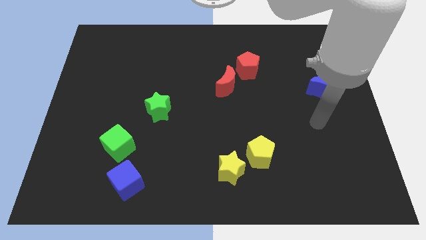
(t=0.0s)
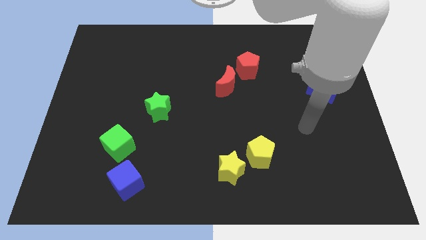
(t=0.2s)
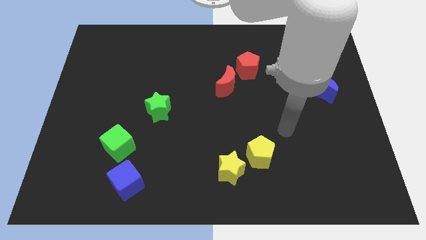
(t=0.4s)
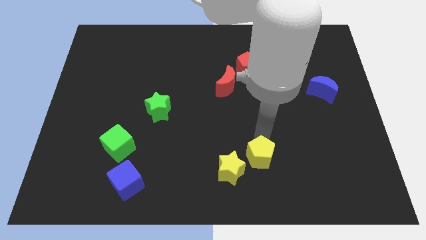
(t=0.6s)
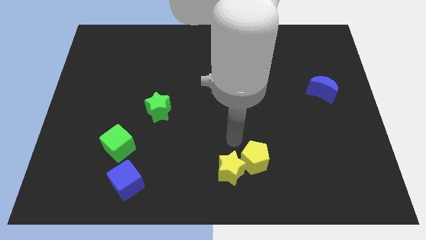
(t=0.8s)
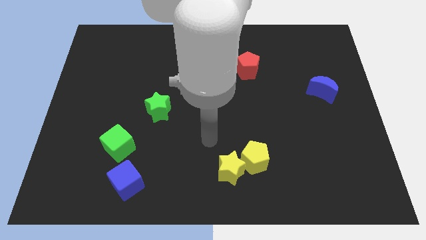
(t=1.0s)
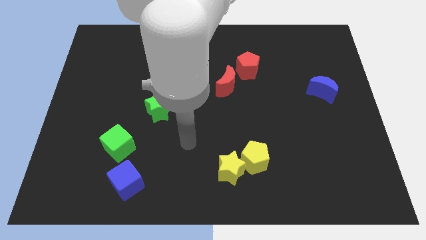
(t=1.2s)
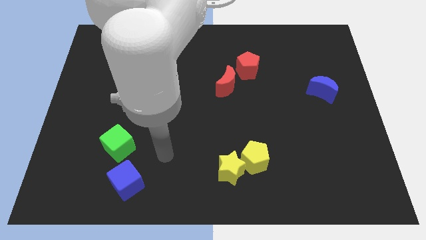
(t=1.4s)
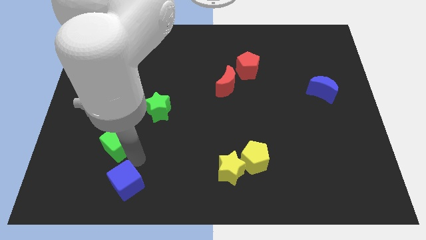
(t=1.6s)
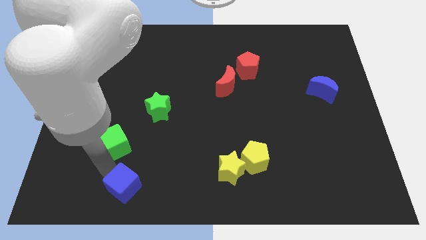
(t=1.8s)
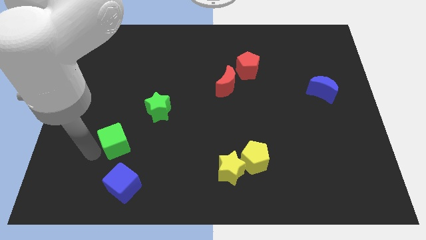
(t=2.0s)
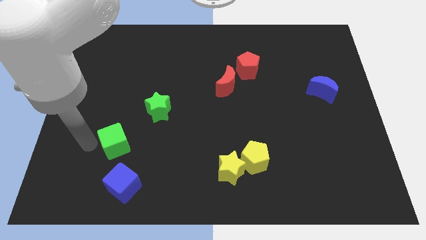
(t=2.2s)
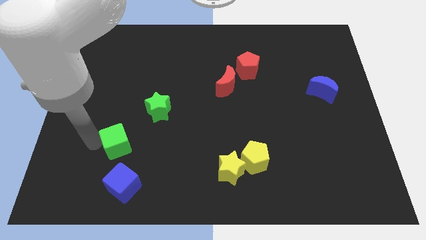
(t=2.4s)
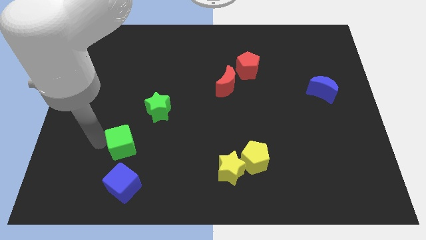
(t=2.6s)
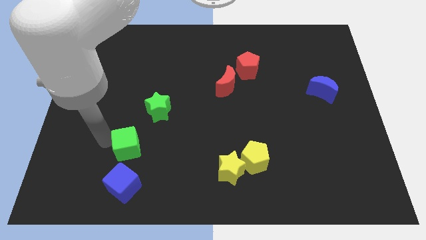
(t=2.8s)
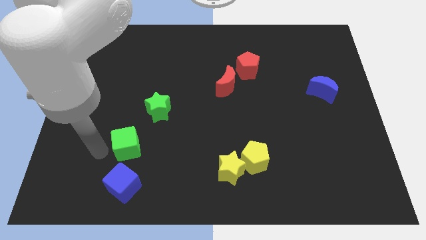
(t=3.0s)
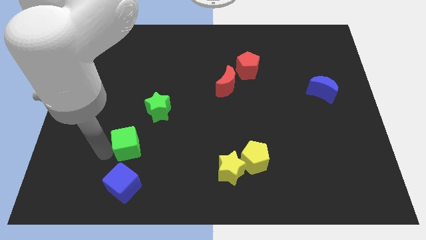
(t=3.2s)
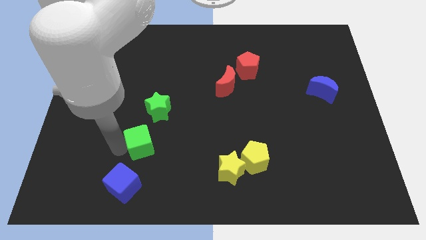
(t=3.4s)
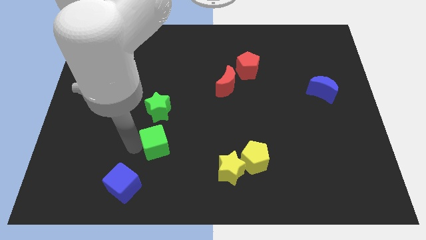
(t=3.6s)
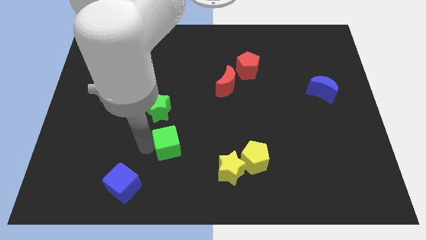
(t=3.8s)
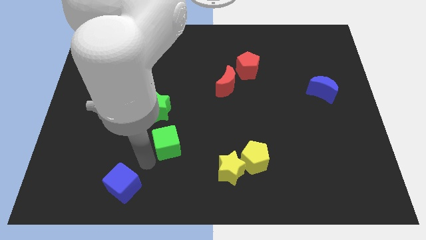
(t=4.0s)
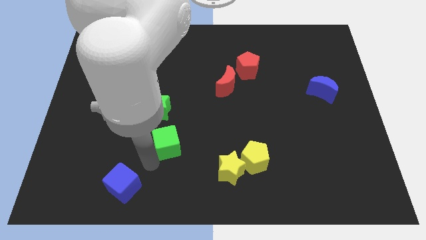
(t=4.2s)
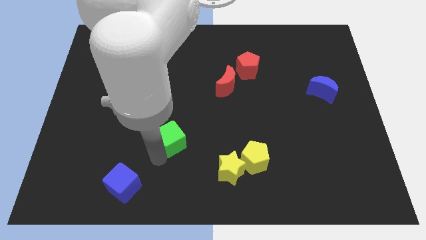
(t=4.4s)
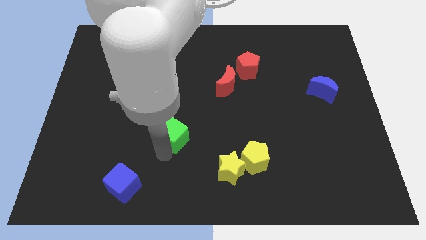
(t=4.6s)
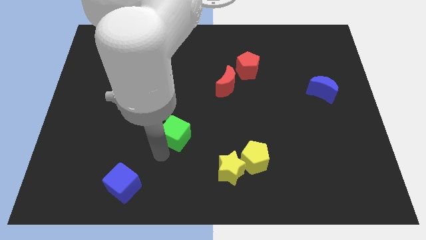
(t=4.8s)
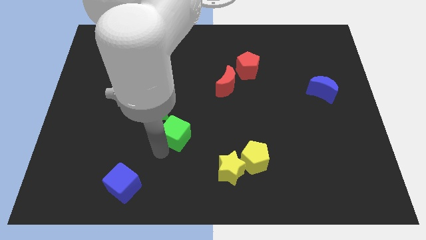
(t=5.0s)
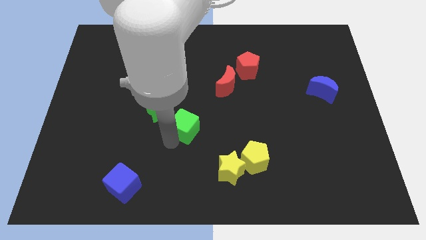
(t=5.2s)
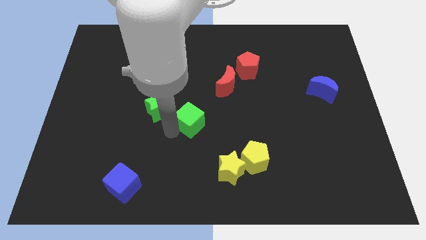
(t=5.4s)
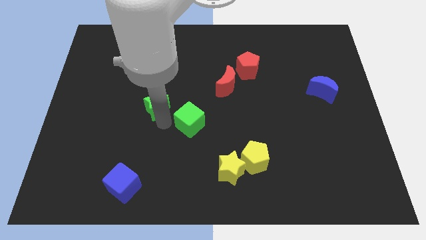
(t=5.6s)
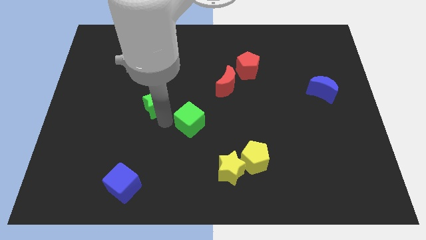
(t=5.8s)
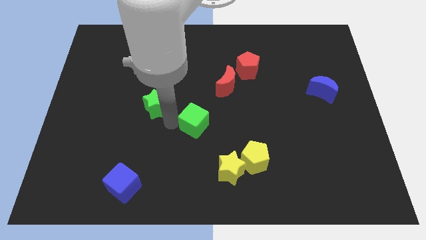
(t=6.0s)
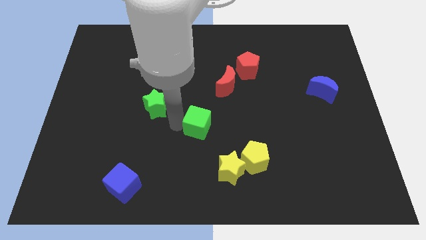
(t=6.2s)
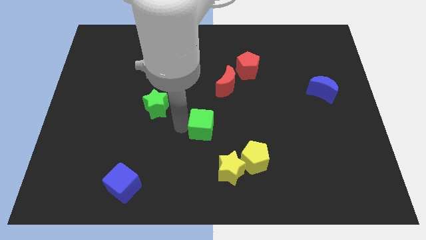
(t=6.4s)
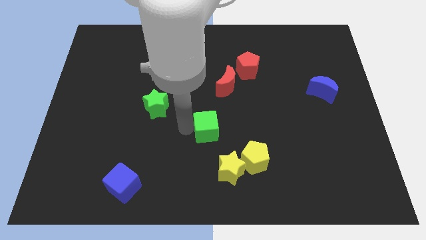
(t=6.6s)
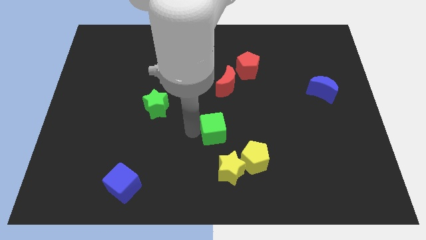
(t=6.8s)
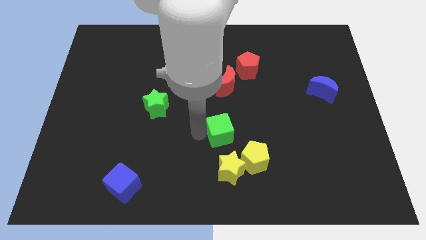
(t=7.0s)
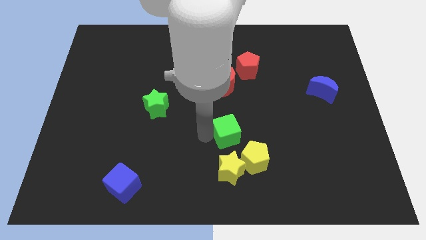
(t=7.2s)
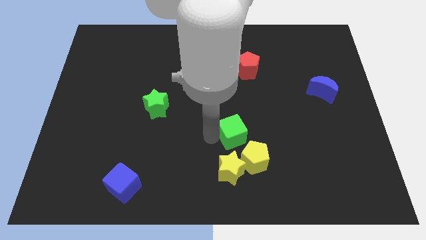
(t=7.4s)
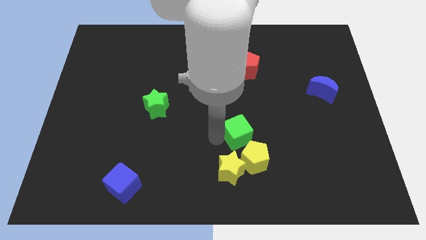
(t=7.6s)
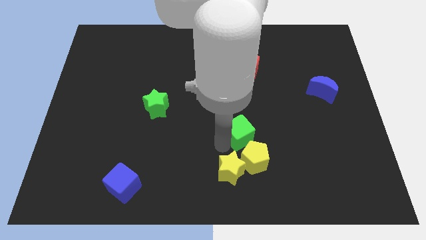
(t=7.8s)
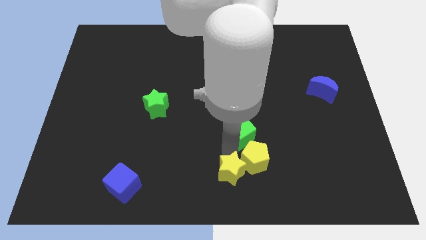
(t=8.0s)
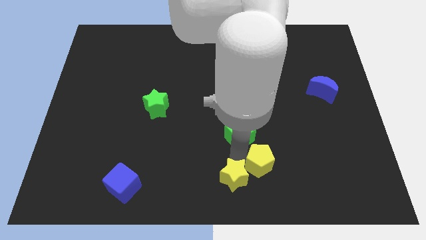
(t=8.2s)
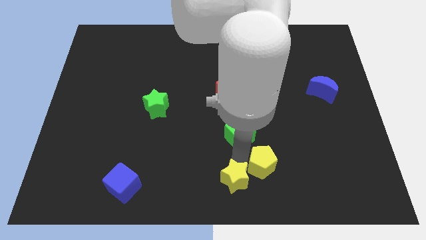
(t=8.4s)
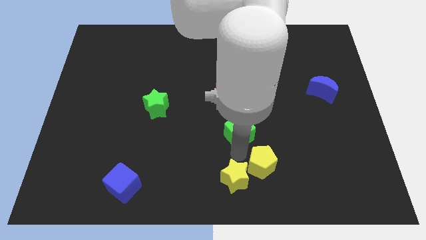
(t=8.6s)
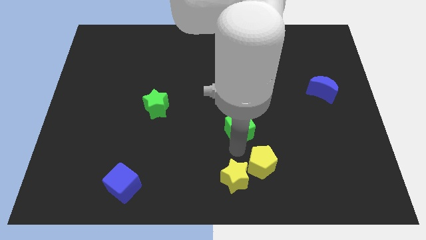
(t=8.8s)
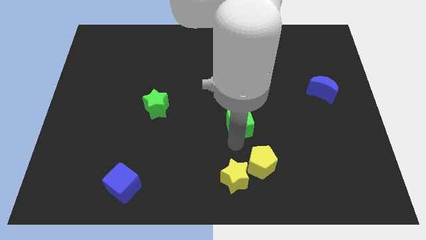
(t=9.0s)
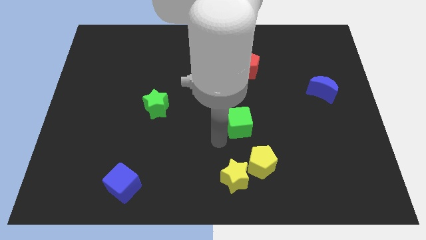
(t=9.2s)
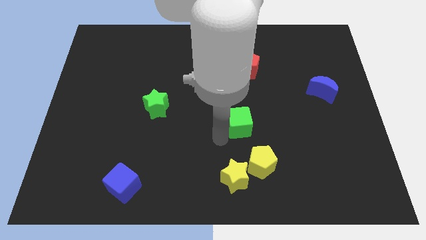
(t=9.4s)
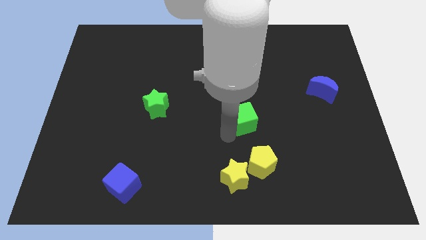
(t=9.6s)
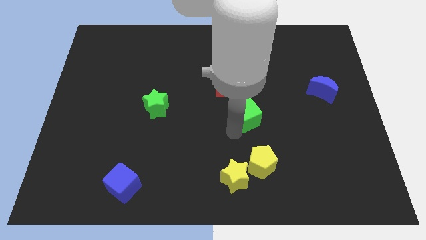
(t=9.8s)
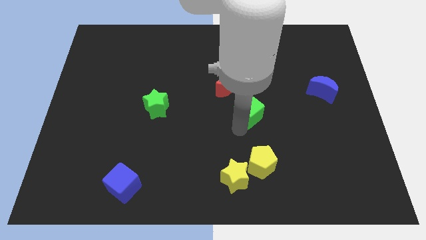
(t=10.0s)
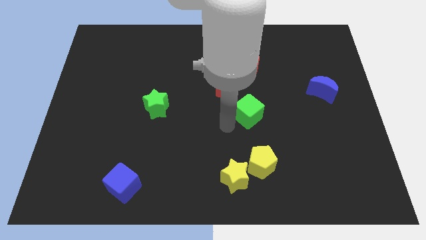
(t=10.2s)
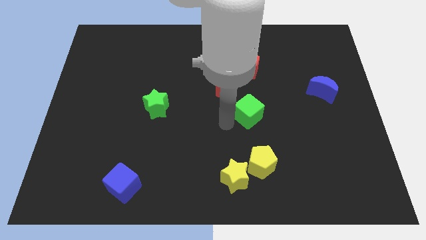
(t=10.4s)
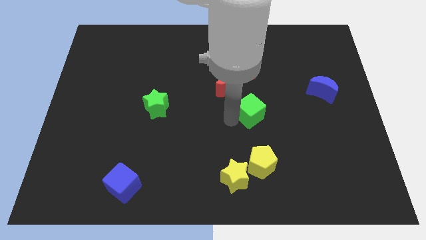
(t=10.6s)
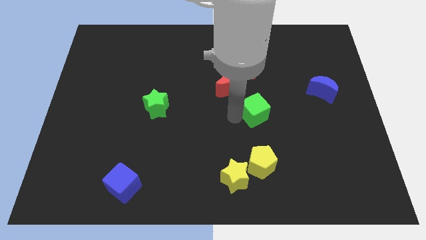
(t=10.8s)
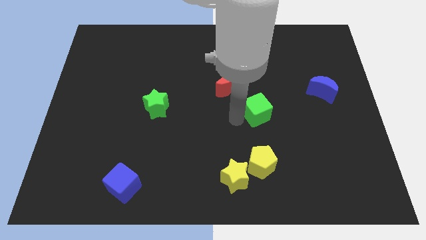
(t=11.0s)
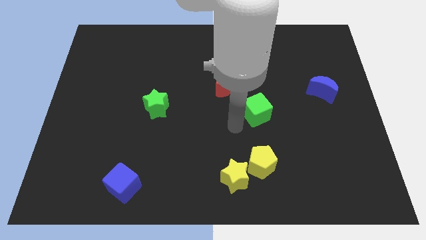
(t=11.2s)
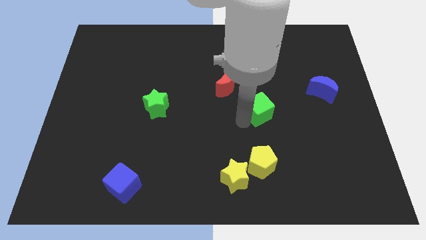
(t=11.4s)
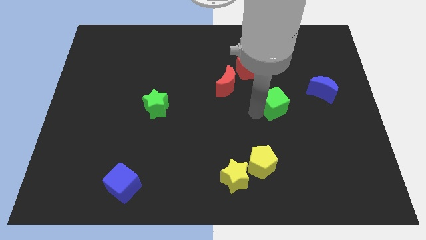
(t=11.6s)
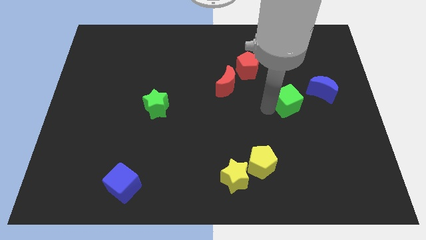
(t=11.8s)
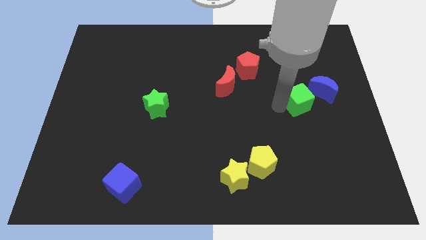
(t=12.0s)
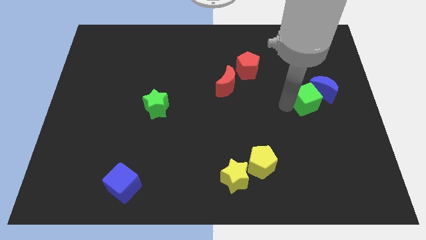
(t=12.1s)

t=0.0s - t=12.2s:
put the green cube next to the blue moon

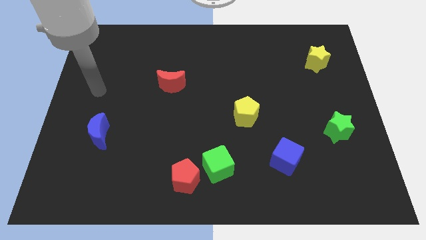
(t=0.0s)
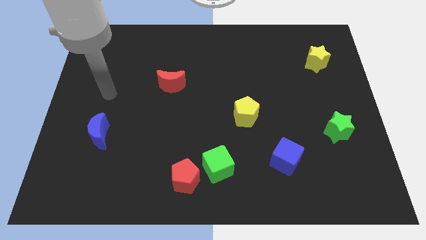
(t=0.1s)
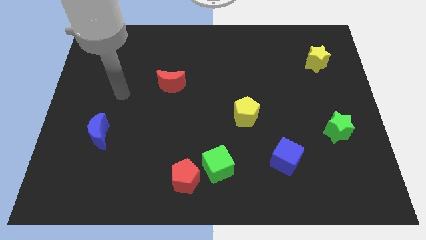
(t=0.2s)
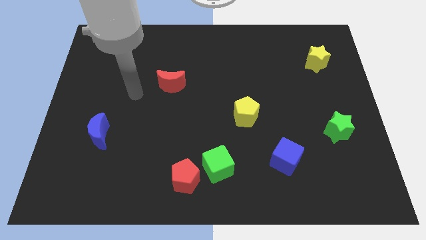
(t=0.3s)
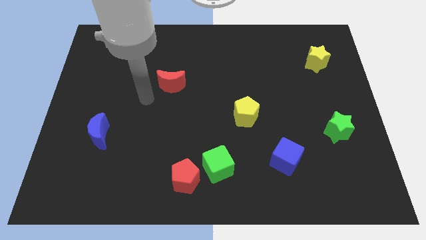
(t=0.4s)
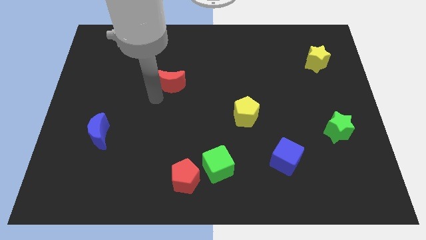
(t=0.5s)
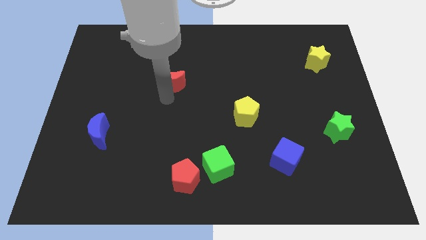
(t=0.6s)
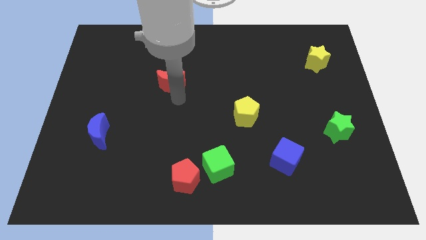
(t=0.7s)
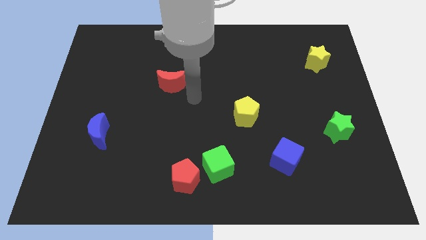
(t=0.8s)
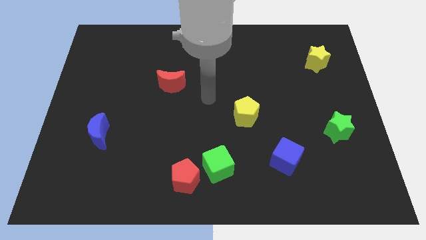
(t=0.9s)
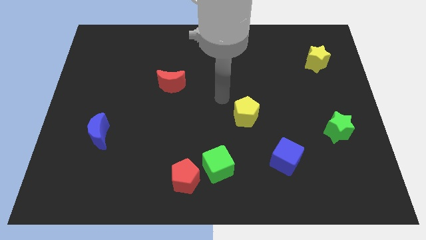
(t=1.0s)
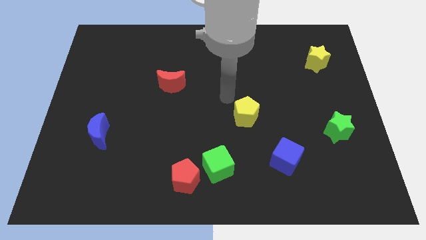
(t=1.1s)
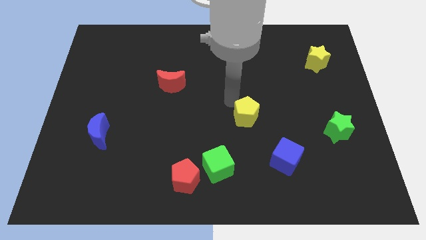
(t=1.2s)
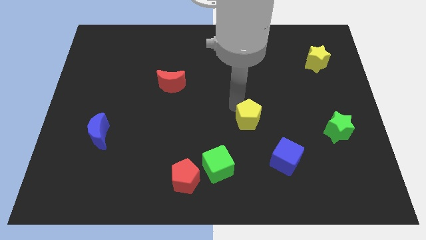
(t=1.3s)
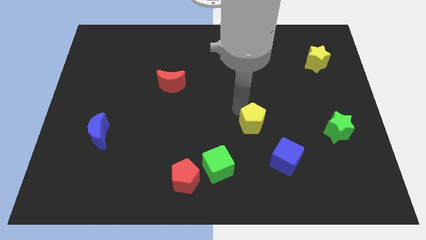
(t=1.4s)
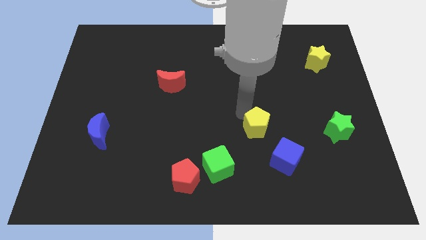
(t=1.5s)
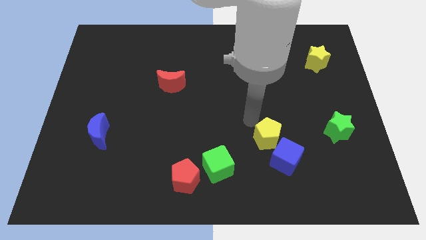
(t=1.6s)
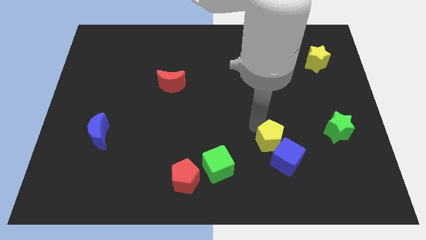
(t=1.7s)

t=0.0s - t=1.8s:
move the yellow pentagon next to the blue cube
